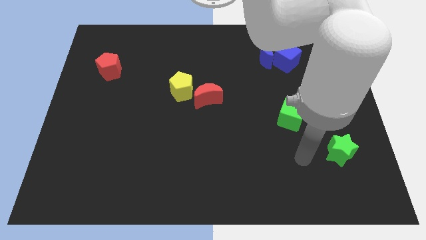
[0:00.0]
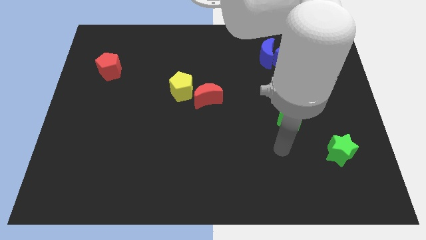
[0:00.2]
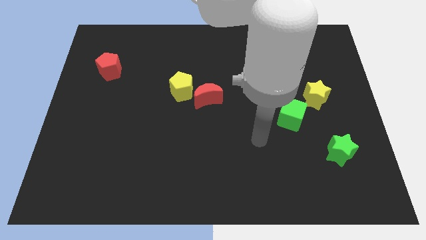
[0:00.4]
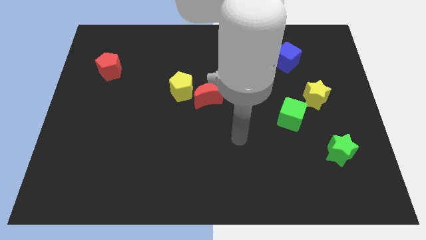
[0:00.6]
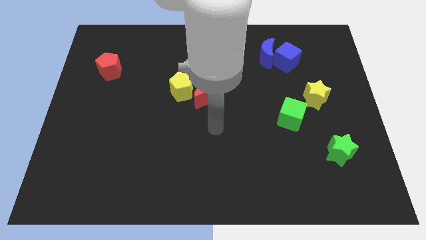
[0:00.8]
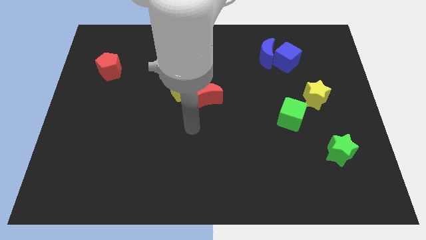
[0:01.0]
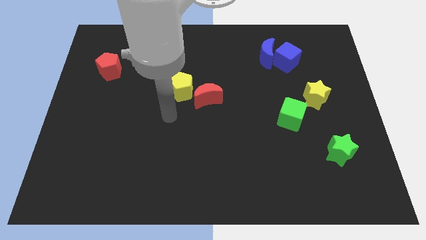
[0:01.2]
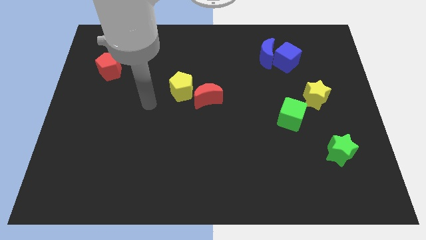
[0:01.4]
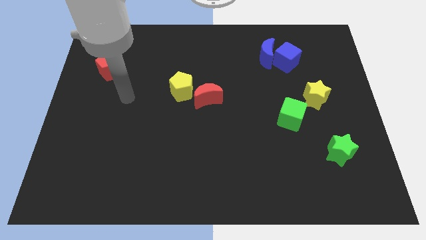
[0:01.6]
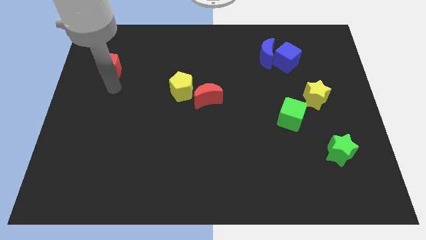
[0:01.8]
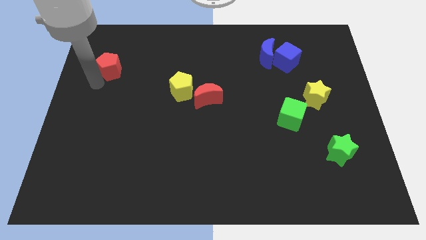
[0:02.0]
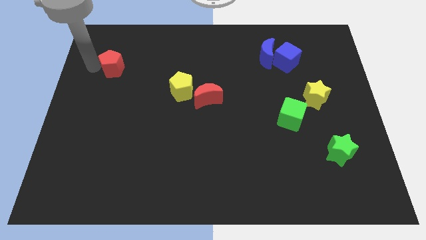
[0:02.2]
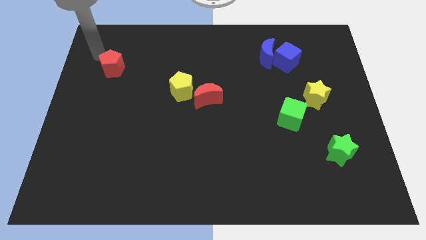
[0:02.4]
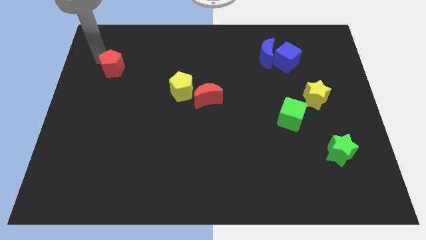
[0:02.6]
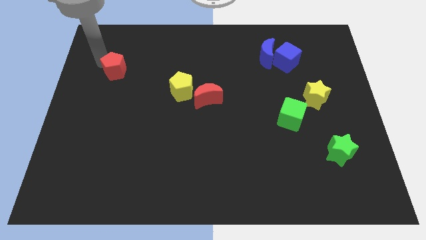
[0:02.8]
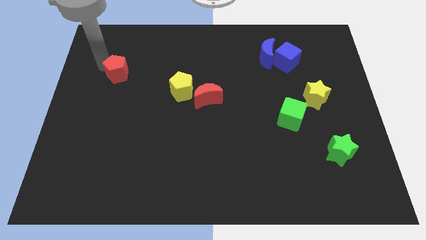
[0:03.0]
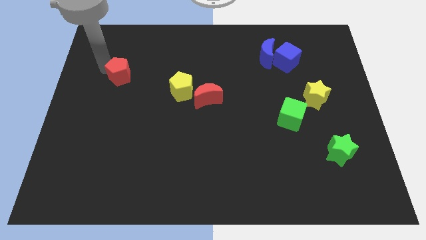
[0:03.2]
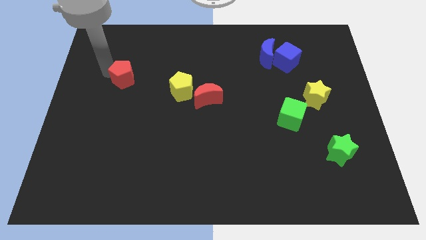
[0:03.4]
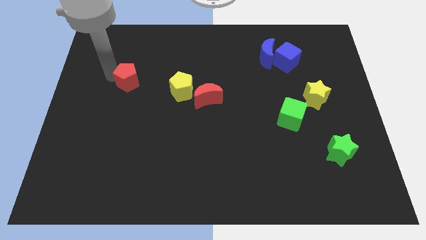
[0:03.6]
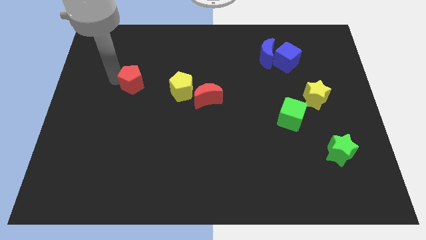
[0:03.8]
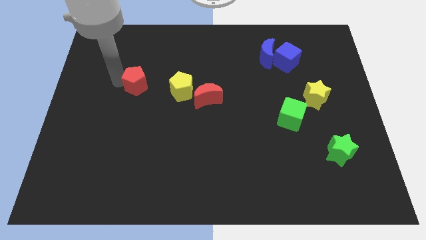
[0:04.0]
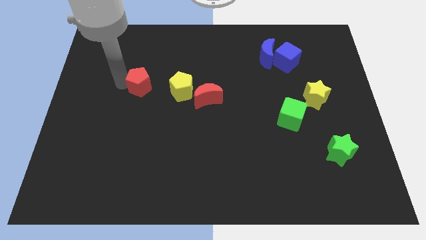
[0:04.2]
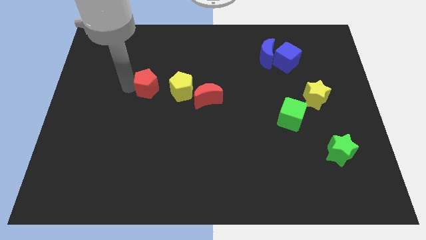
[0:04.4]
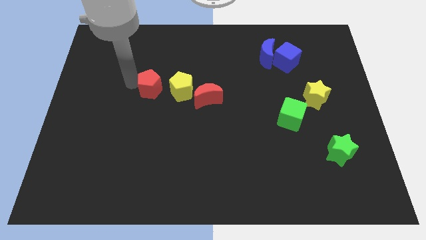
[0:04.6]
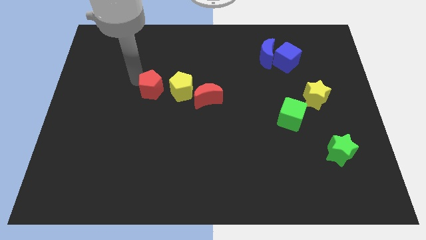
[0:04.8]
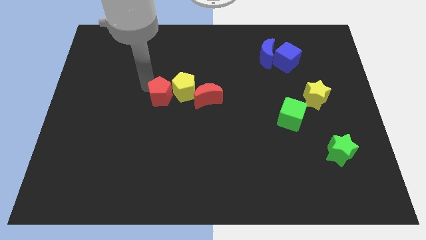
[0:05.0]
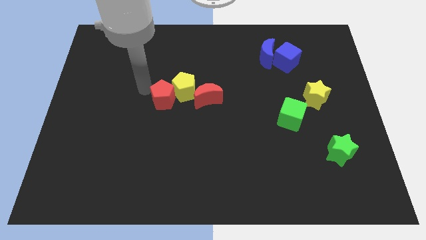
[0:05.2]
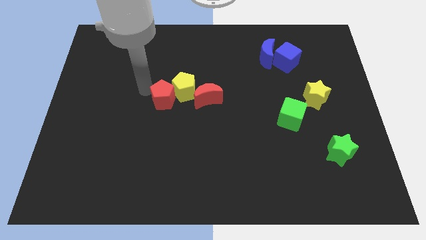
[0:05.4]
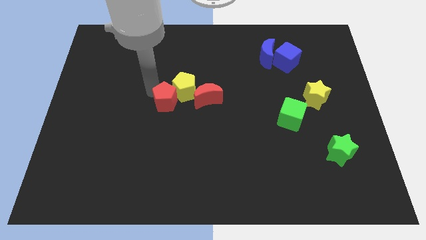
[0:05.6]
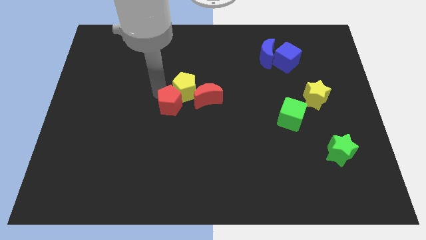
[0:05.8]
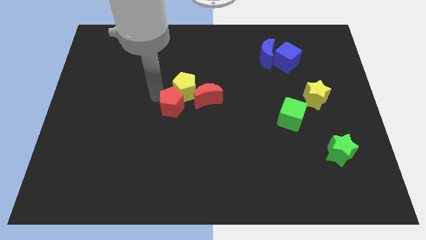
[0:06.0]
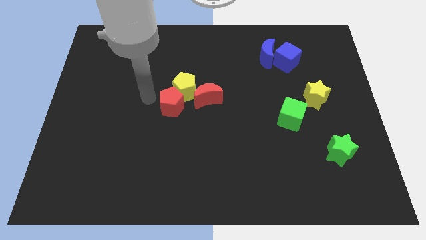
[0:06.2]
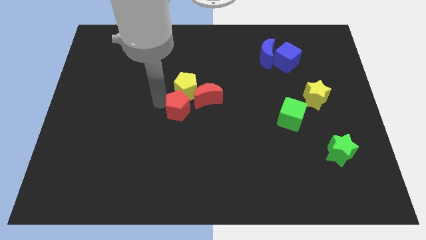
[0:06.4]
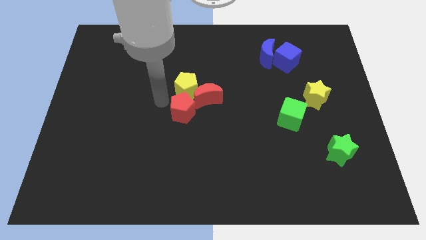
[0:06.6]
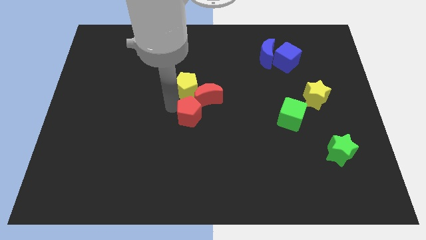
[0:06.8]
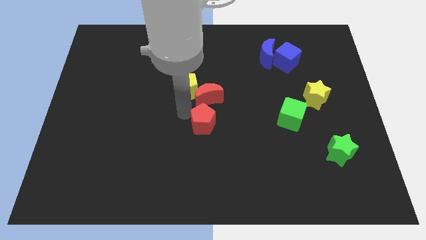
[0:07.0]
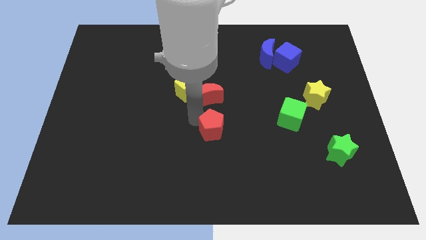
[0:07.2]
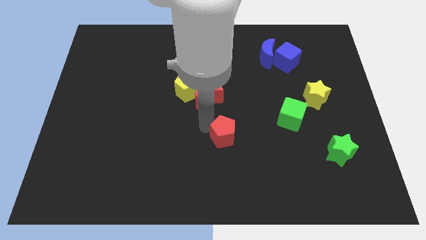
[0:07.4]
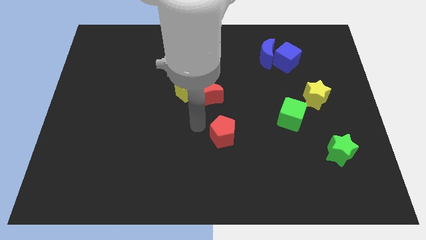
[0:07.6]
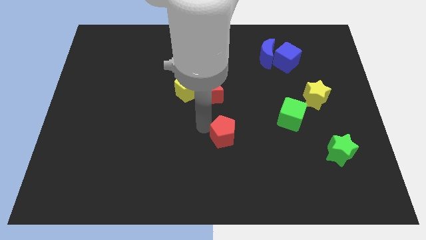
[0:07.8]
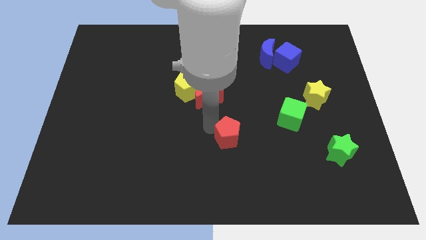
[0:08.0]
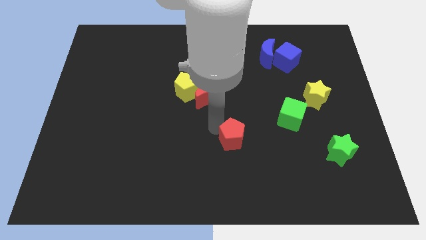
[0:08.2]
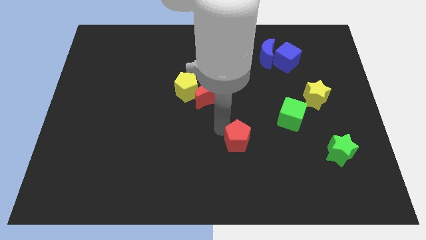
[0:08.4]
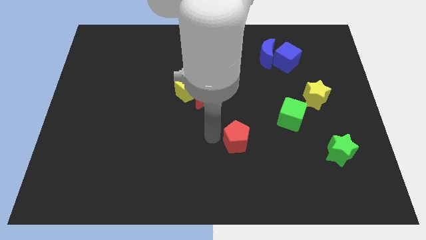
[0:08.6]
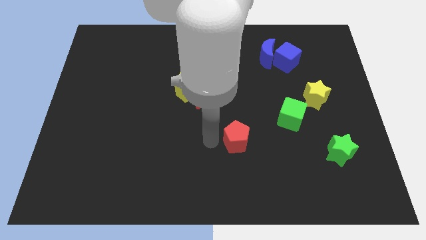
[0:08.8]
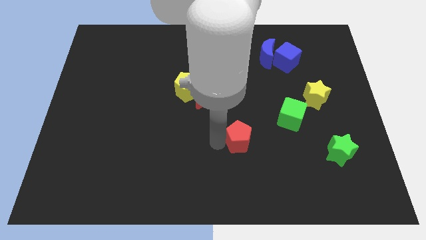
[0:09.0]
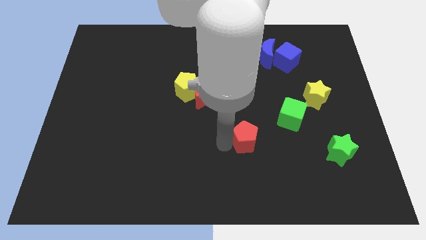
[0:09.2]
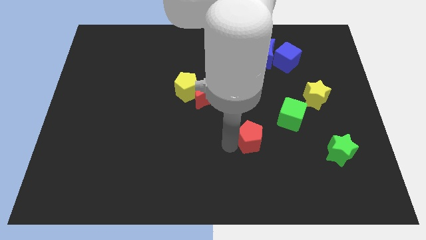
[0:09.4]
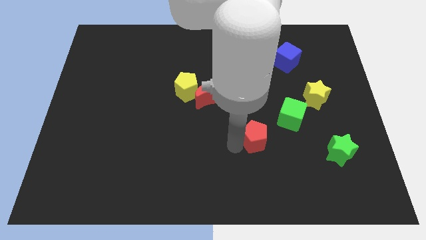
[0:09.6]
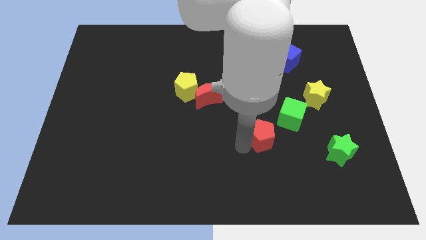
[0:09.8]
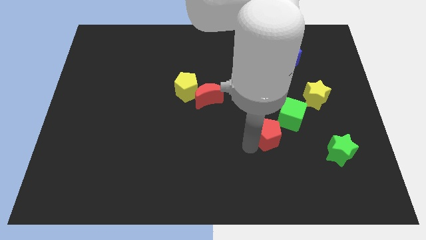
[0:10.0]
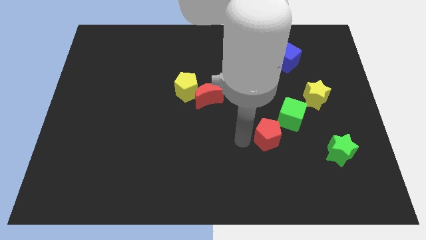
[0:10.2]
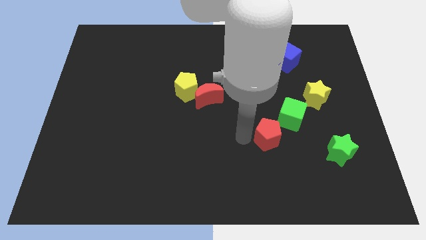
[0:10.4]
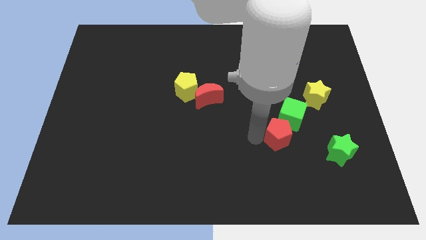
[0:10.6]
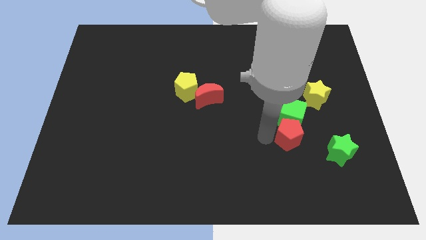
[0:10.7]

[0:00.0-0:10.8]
slide the red pentagon diagonally down and to the right of the green cube

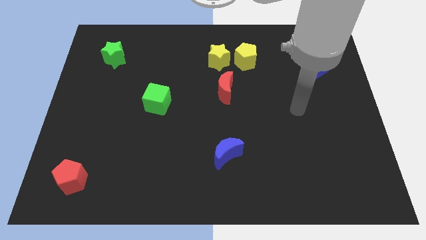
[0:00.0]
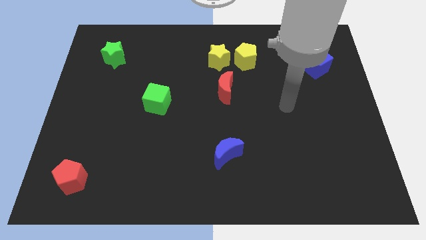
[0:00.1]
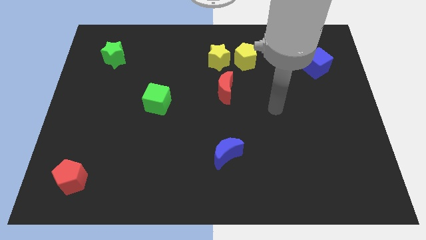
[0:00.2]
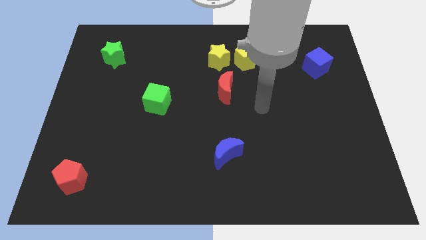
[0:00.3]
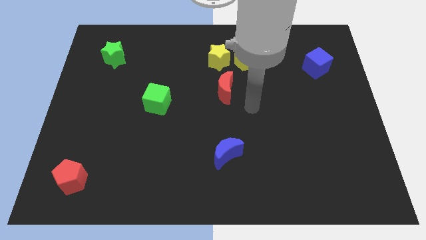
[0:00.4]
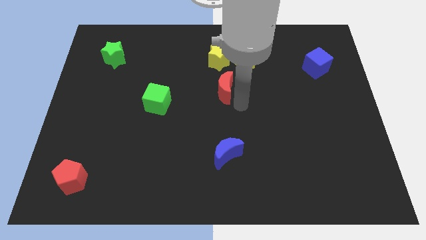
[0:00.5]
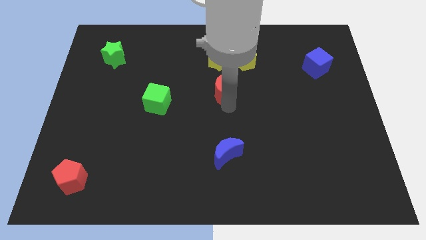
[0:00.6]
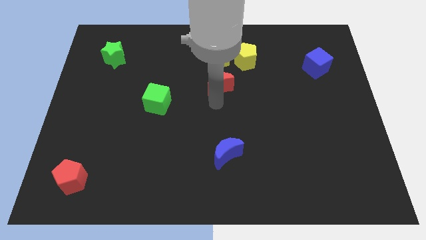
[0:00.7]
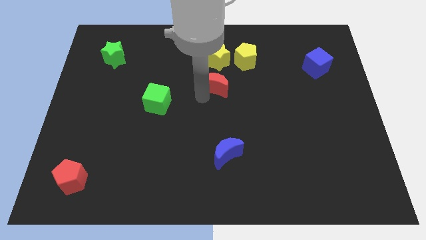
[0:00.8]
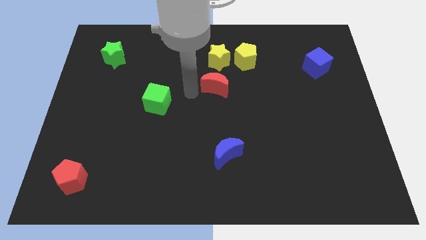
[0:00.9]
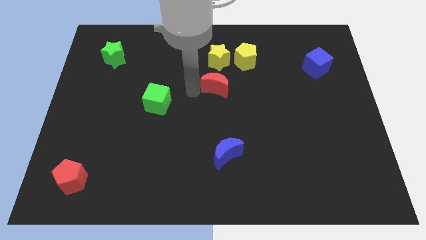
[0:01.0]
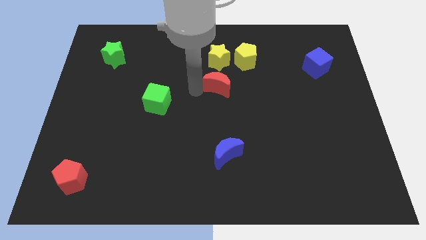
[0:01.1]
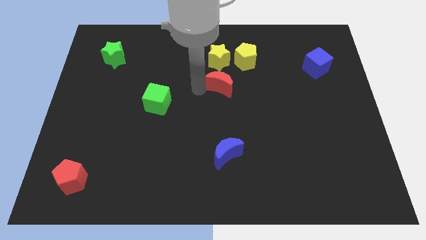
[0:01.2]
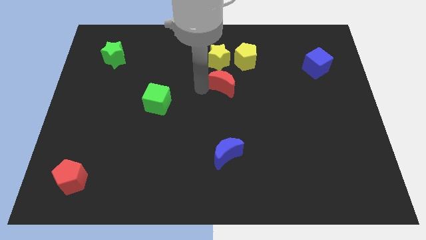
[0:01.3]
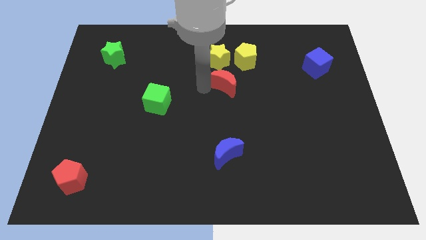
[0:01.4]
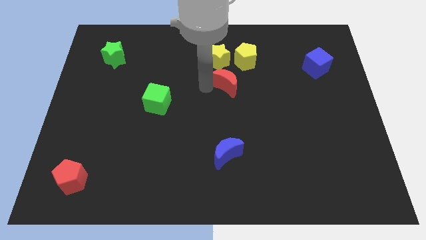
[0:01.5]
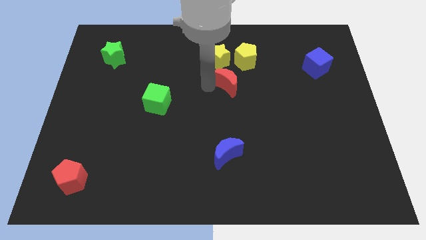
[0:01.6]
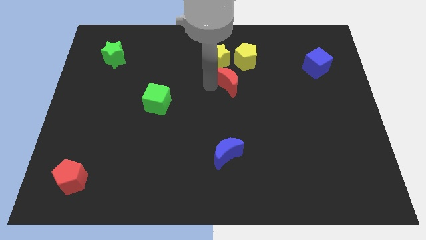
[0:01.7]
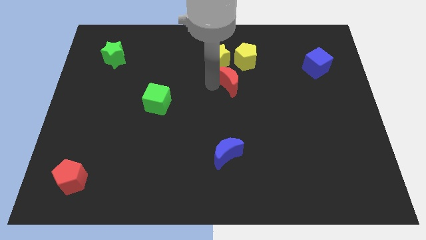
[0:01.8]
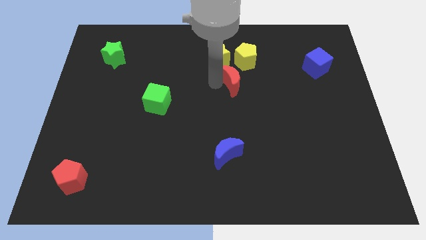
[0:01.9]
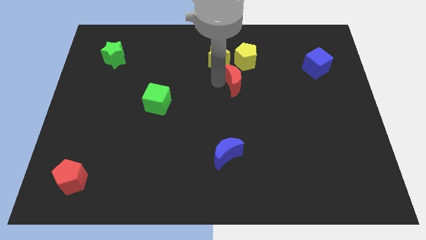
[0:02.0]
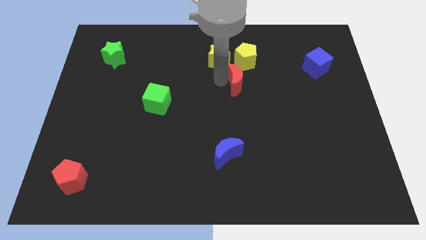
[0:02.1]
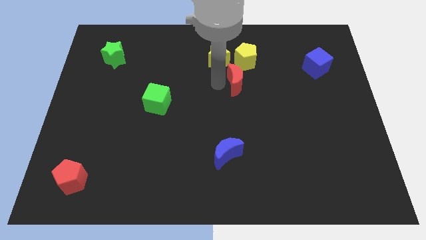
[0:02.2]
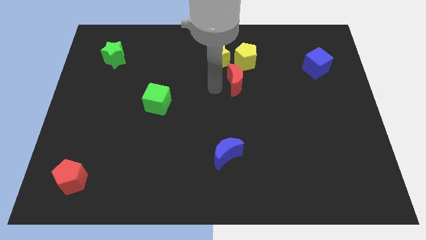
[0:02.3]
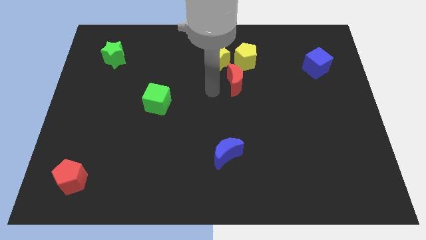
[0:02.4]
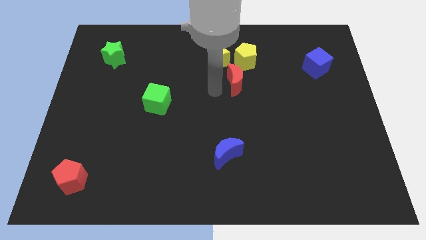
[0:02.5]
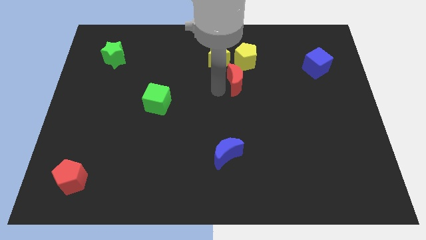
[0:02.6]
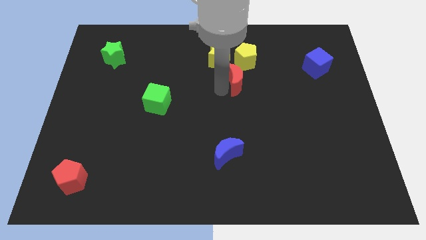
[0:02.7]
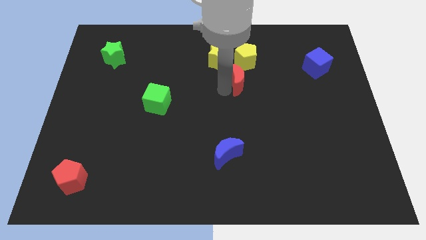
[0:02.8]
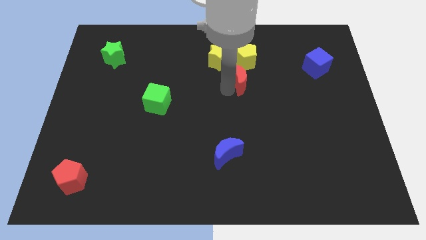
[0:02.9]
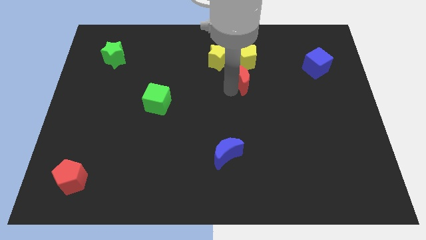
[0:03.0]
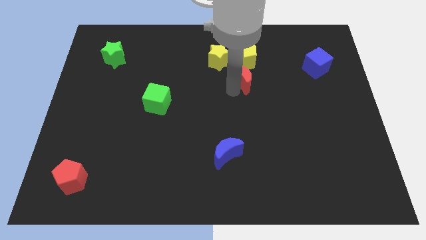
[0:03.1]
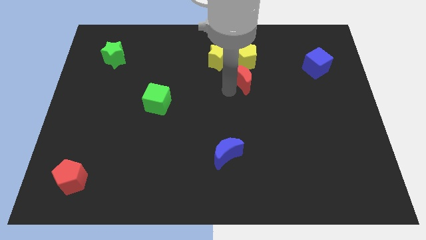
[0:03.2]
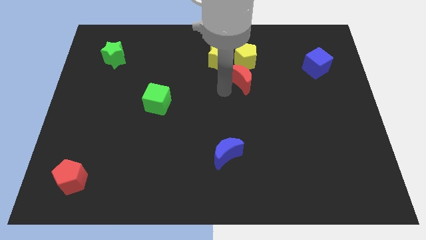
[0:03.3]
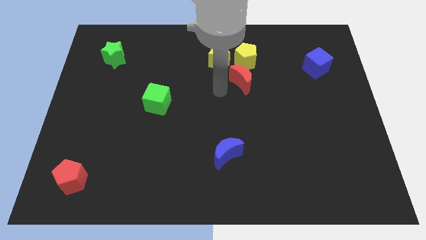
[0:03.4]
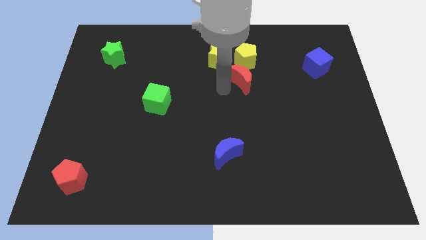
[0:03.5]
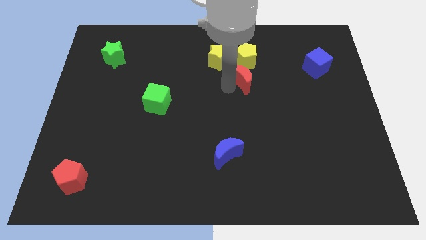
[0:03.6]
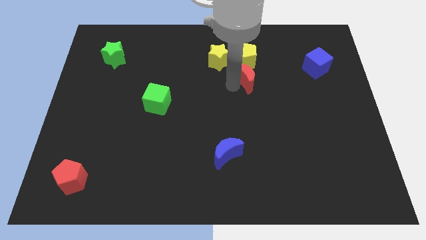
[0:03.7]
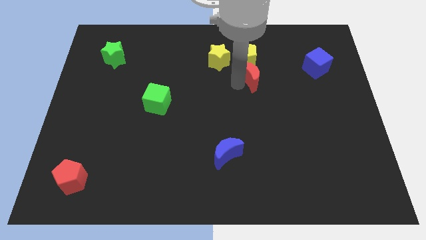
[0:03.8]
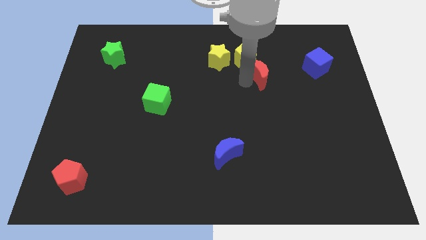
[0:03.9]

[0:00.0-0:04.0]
push the red moon left of the blue cube
